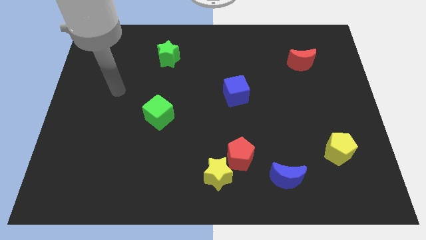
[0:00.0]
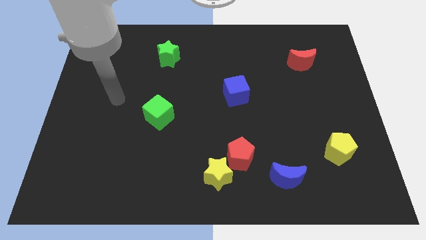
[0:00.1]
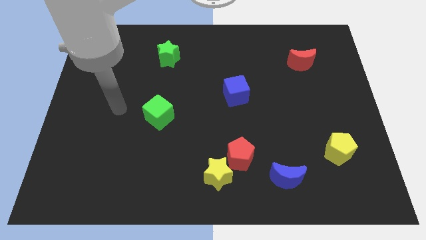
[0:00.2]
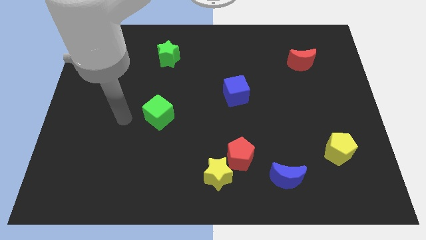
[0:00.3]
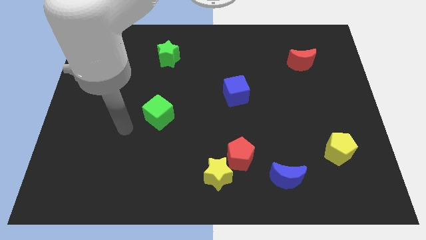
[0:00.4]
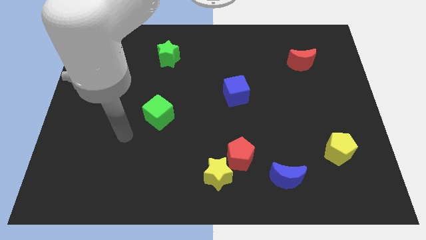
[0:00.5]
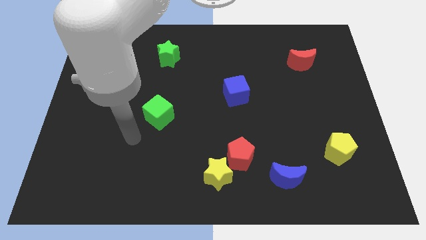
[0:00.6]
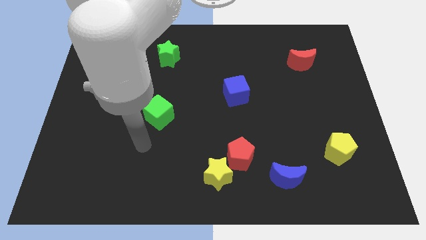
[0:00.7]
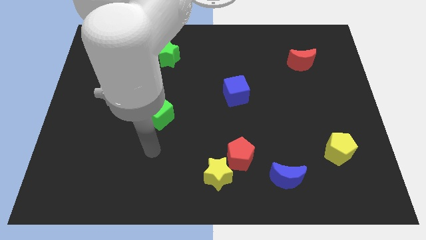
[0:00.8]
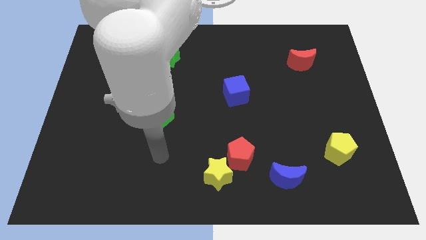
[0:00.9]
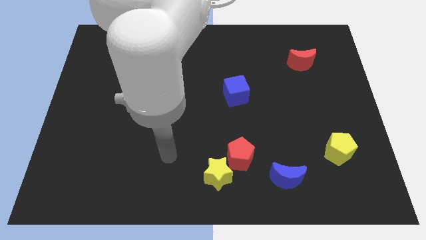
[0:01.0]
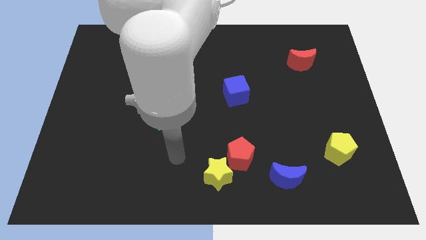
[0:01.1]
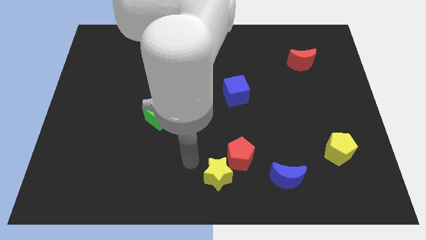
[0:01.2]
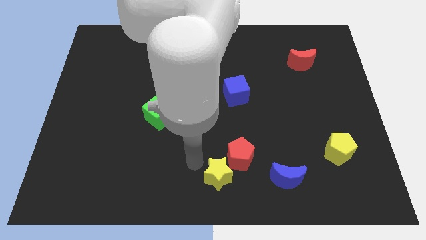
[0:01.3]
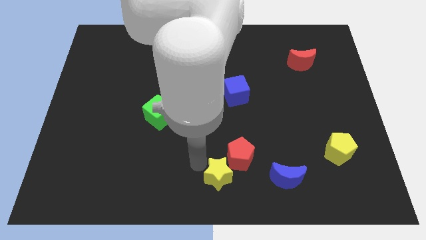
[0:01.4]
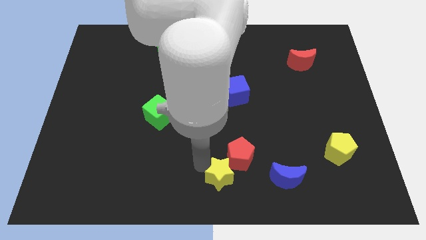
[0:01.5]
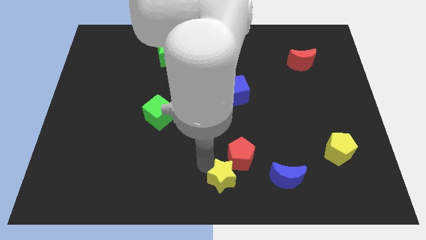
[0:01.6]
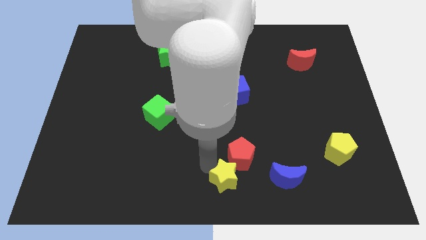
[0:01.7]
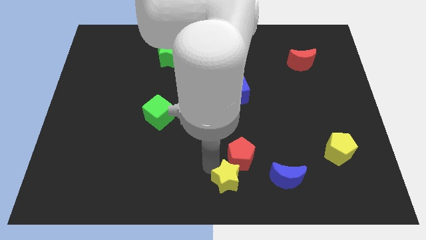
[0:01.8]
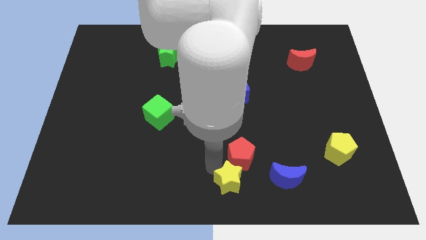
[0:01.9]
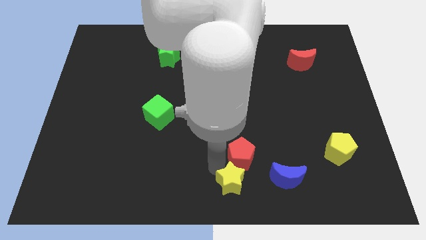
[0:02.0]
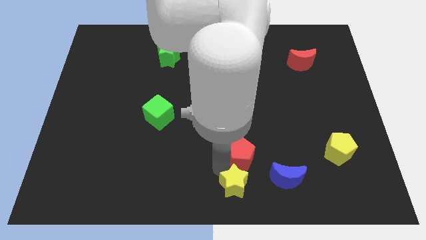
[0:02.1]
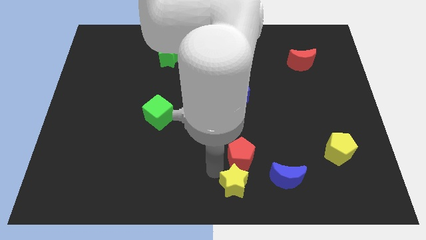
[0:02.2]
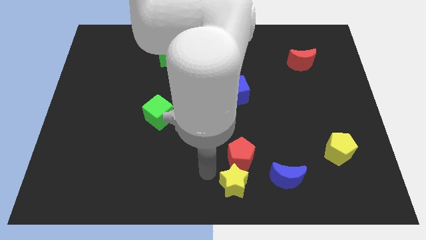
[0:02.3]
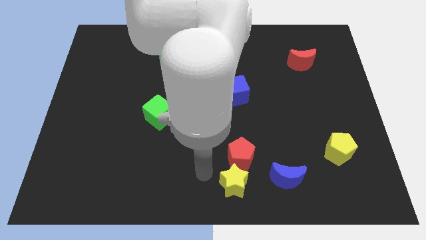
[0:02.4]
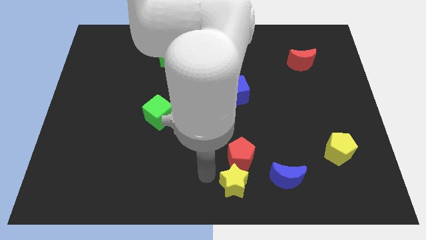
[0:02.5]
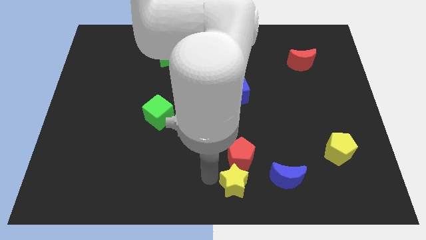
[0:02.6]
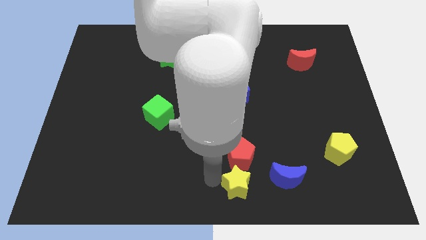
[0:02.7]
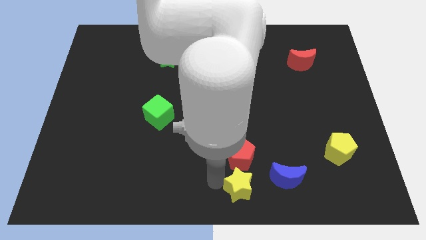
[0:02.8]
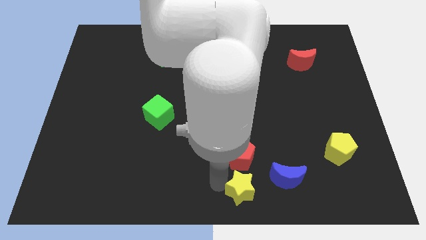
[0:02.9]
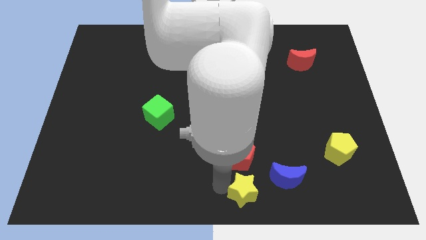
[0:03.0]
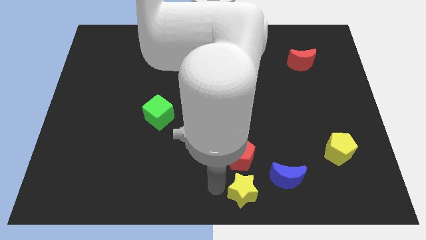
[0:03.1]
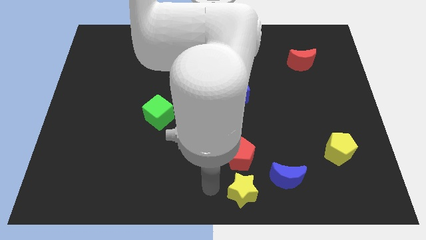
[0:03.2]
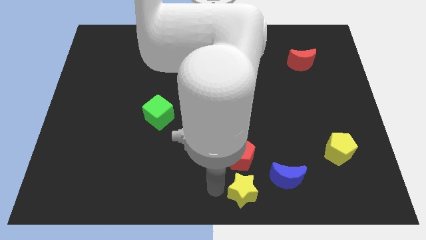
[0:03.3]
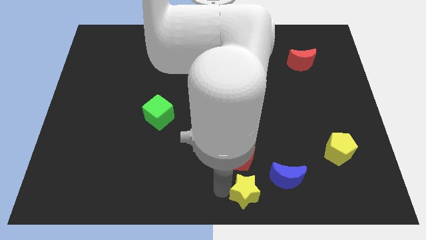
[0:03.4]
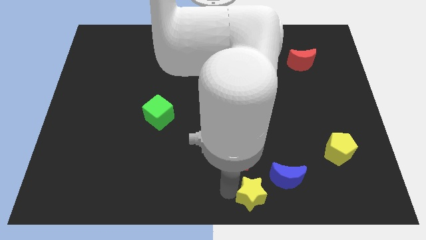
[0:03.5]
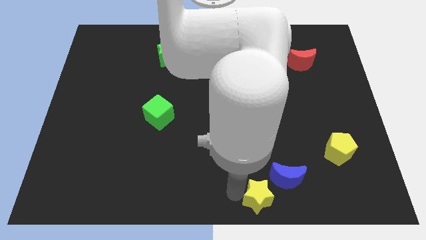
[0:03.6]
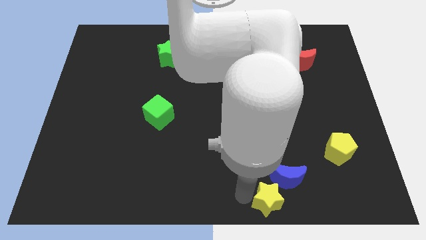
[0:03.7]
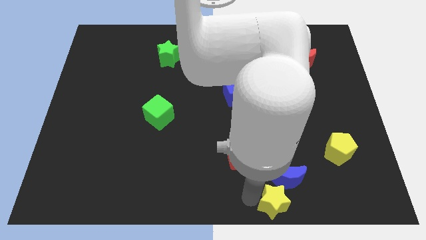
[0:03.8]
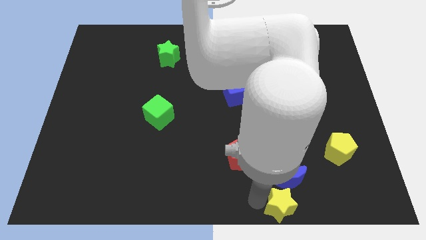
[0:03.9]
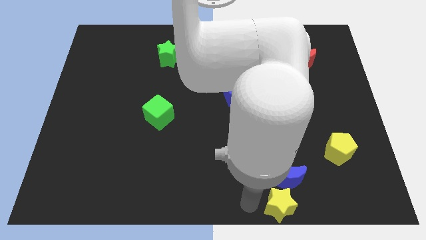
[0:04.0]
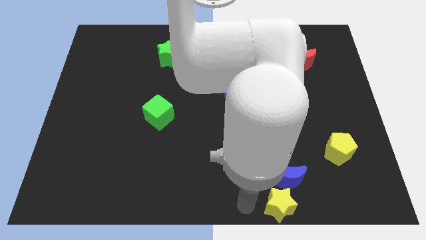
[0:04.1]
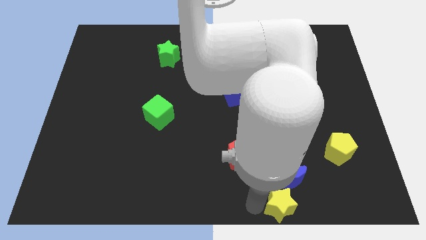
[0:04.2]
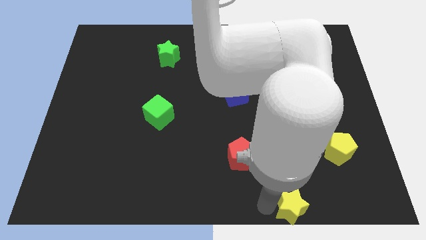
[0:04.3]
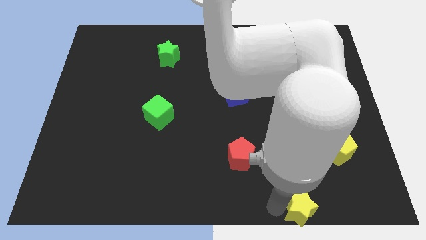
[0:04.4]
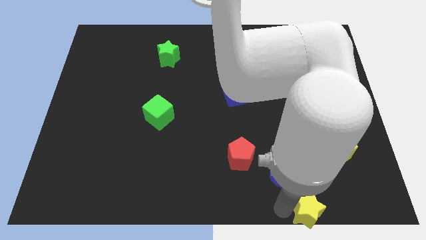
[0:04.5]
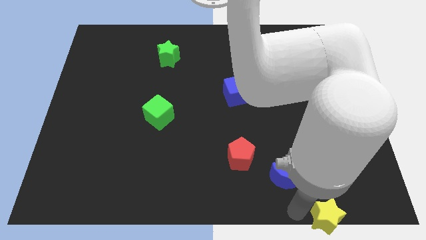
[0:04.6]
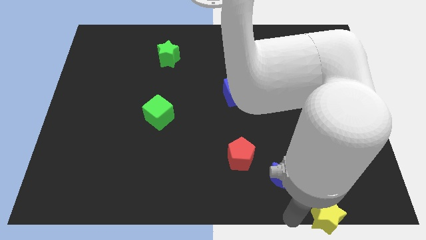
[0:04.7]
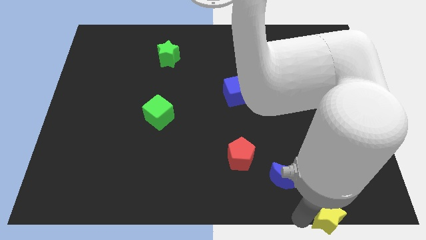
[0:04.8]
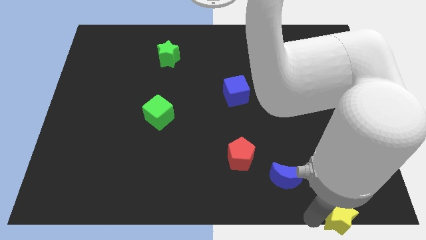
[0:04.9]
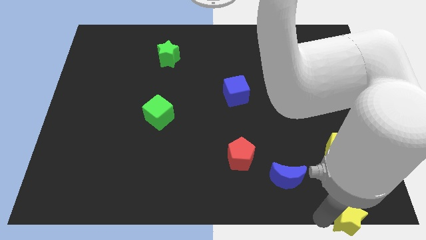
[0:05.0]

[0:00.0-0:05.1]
push the yellow star to the bottom right of the board

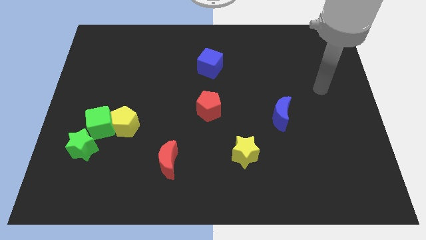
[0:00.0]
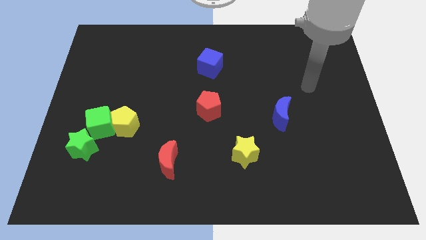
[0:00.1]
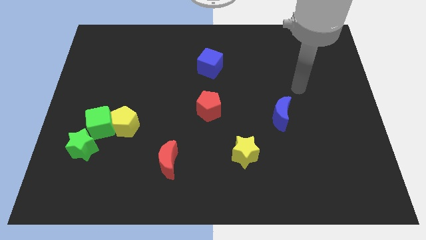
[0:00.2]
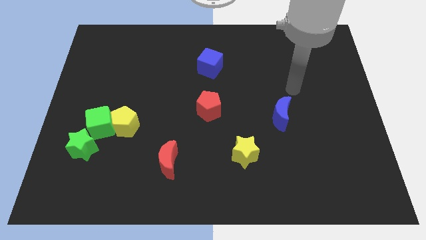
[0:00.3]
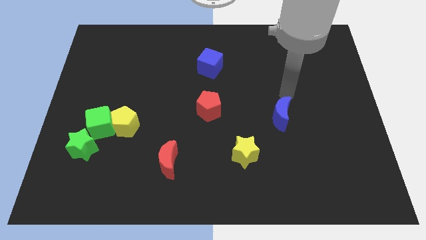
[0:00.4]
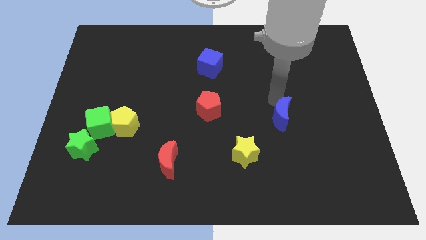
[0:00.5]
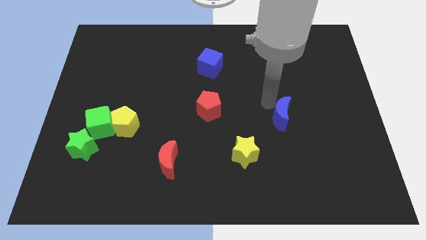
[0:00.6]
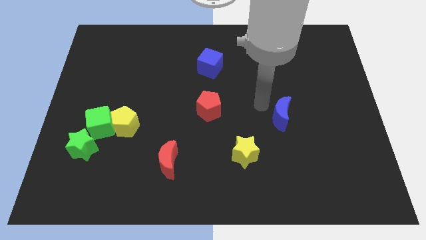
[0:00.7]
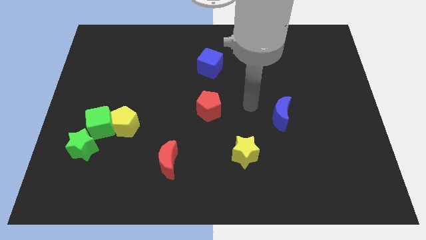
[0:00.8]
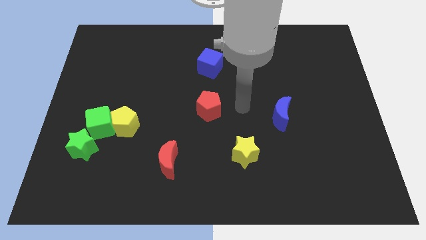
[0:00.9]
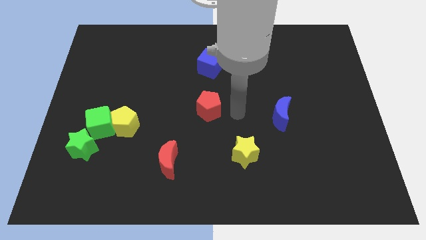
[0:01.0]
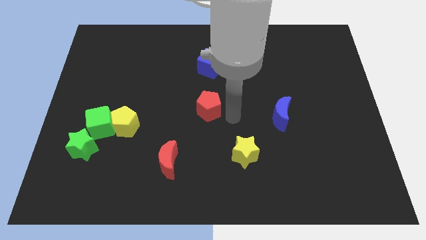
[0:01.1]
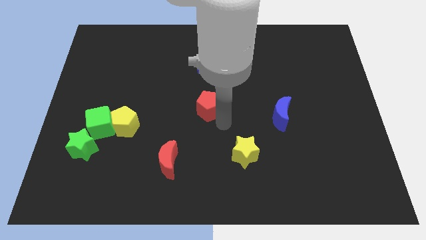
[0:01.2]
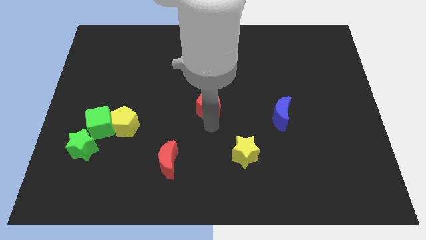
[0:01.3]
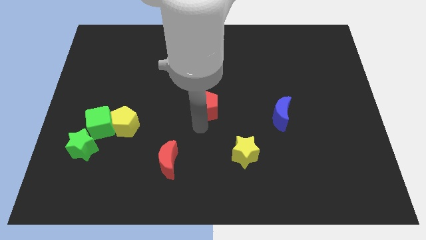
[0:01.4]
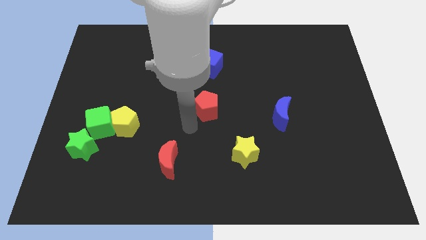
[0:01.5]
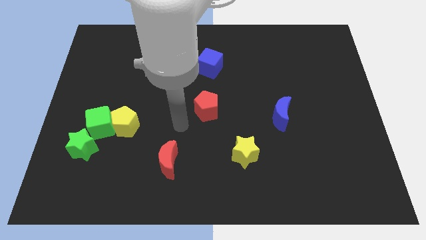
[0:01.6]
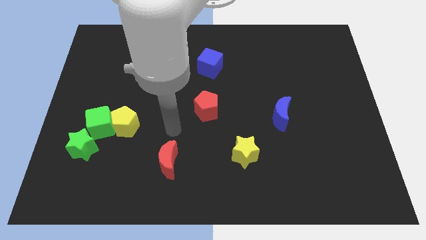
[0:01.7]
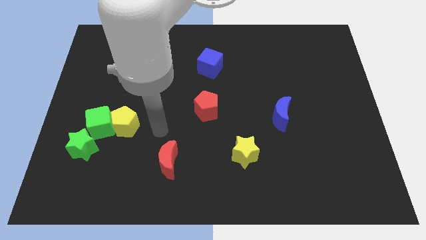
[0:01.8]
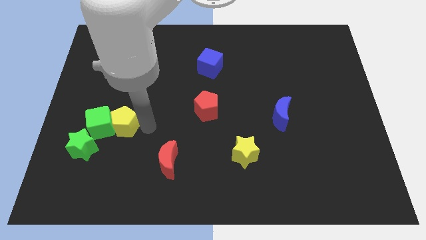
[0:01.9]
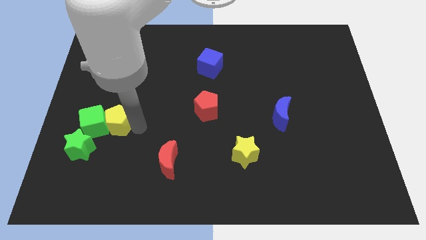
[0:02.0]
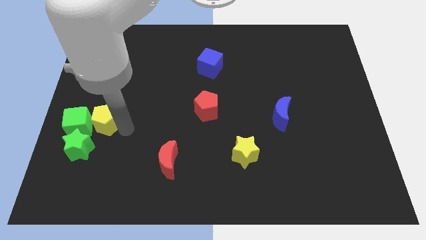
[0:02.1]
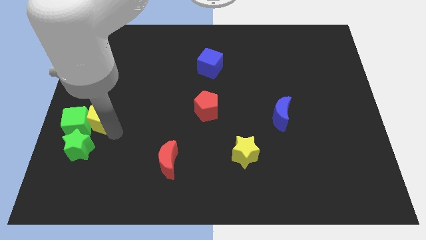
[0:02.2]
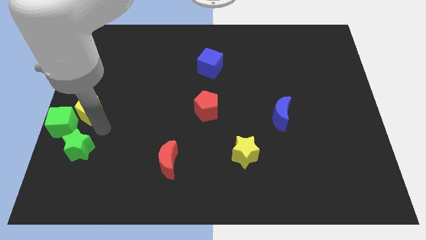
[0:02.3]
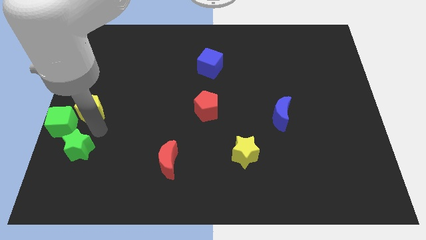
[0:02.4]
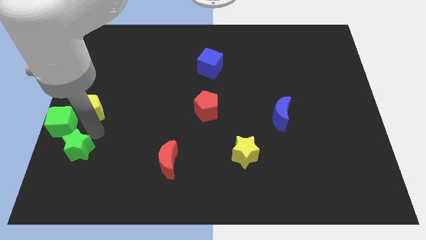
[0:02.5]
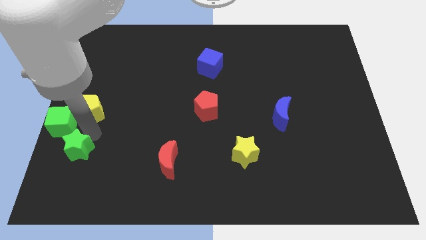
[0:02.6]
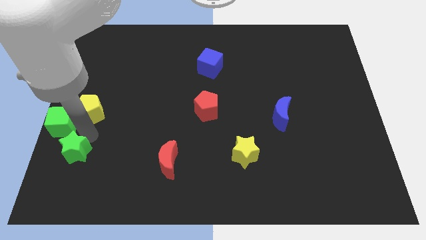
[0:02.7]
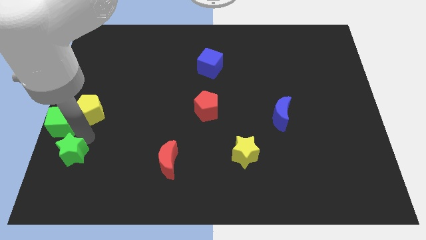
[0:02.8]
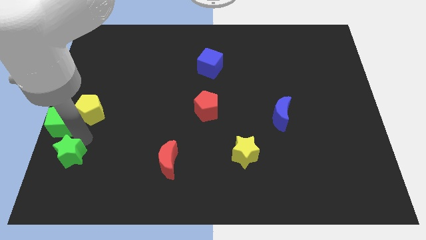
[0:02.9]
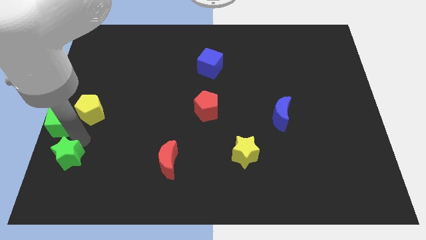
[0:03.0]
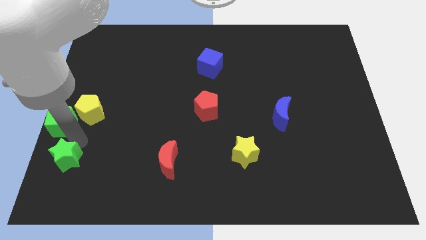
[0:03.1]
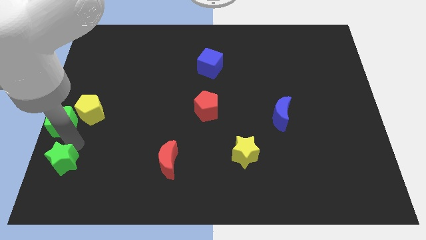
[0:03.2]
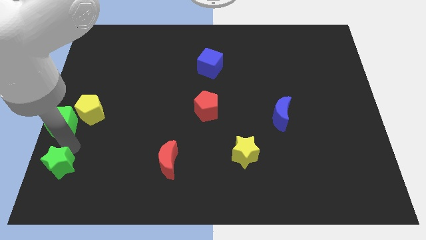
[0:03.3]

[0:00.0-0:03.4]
put the green star to the lower left corner
